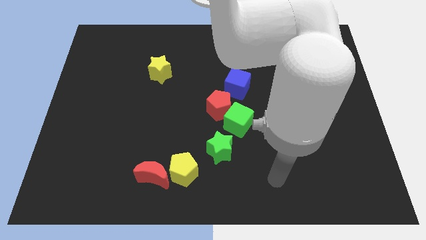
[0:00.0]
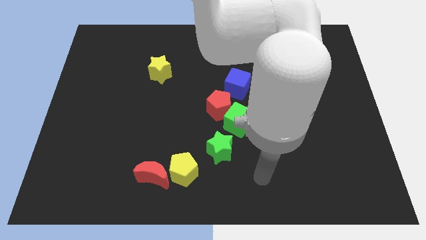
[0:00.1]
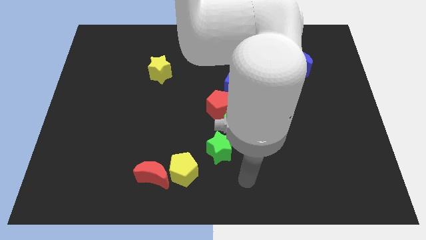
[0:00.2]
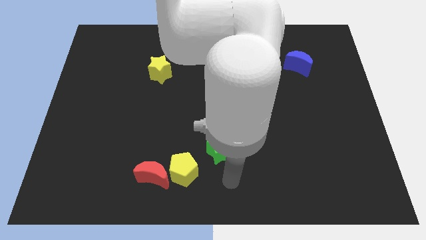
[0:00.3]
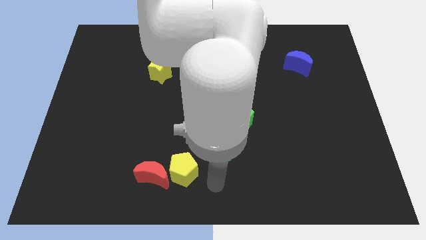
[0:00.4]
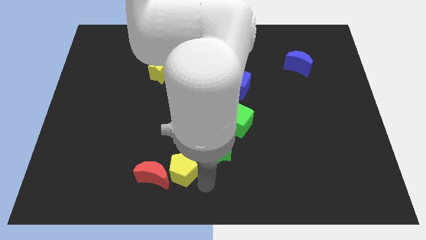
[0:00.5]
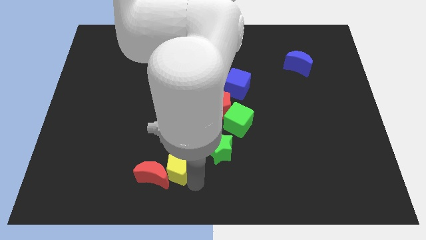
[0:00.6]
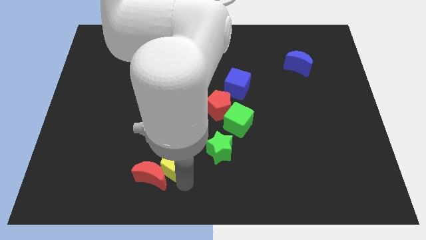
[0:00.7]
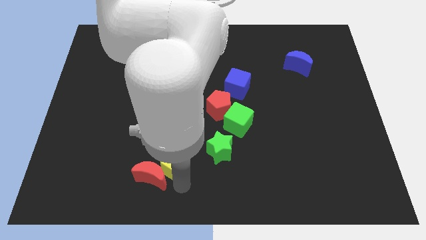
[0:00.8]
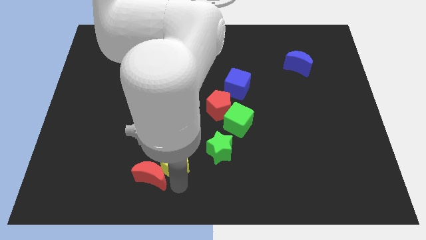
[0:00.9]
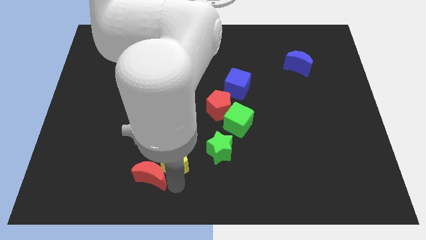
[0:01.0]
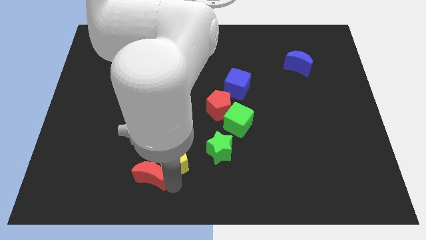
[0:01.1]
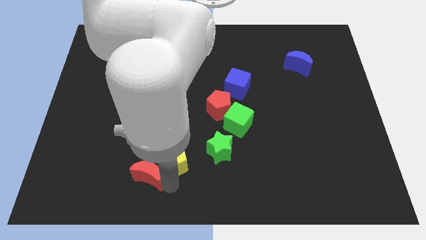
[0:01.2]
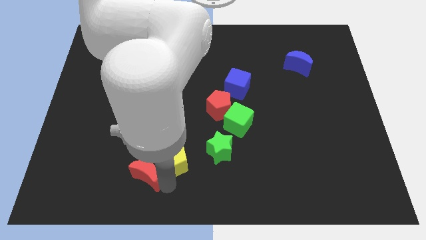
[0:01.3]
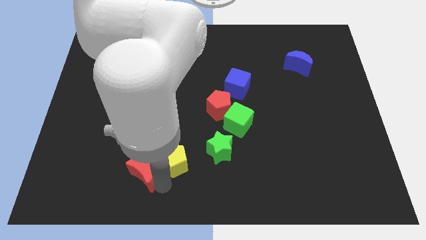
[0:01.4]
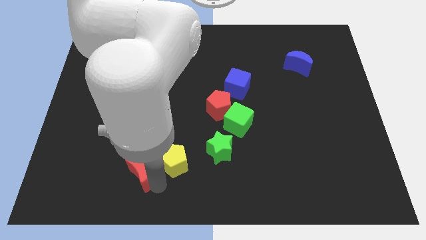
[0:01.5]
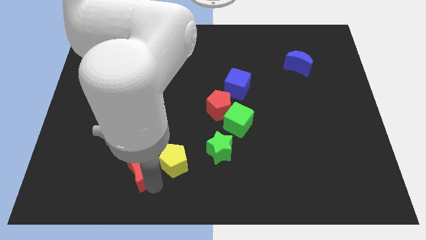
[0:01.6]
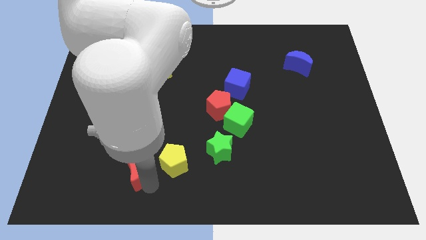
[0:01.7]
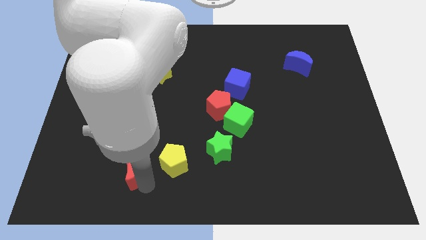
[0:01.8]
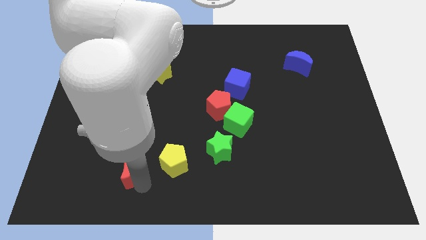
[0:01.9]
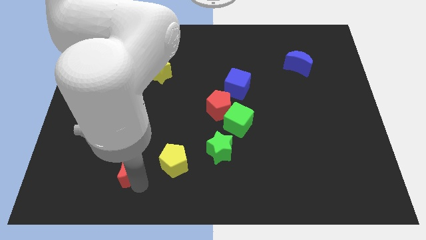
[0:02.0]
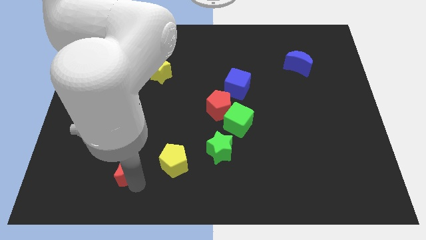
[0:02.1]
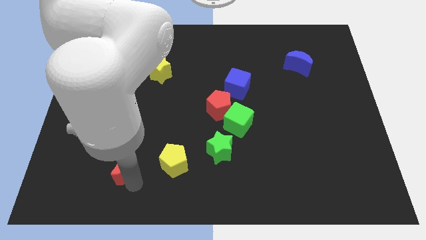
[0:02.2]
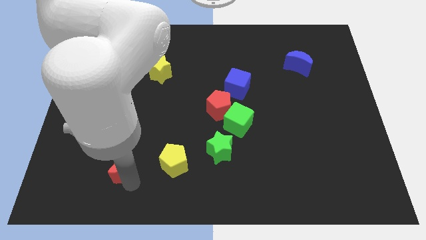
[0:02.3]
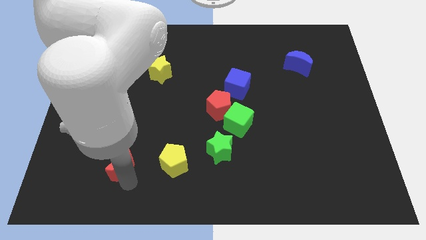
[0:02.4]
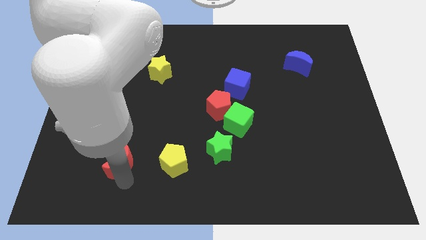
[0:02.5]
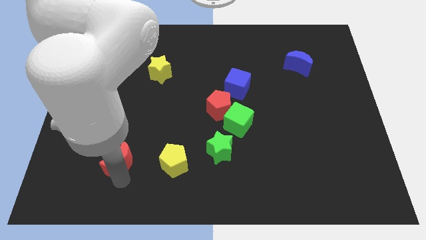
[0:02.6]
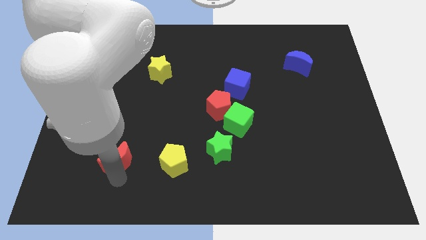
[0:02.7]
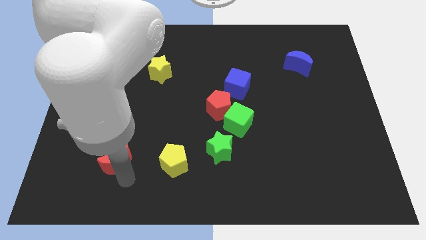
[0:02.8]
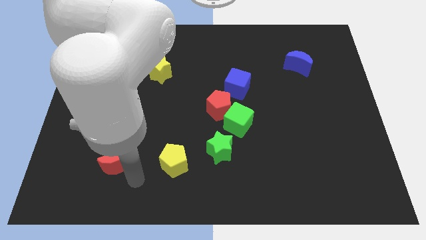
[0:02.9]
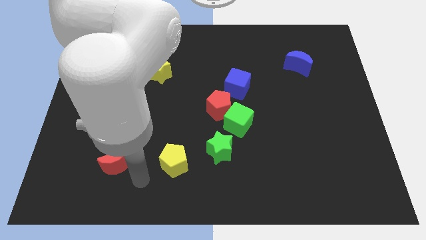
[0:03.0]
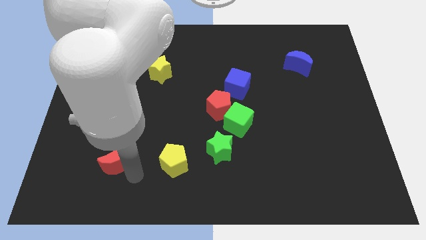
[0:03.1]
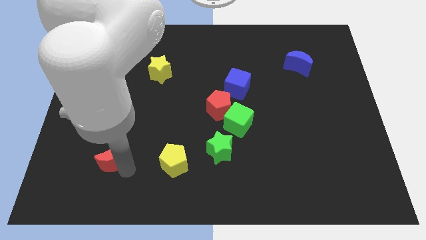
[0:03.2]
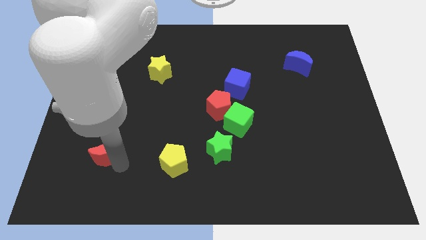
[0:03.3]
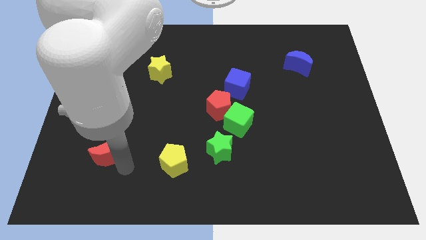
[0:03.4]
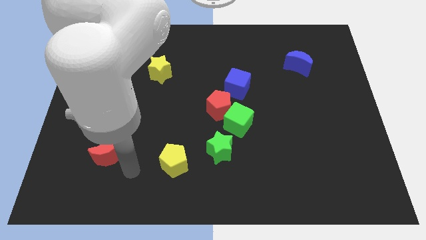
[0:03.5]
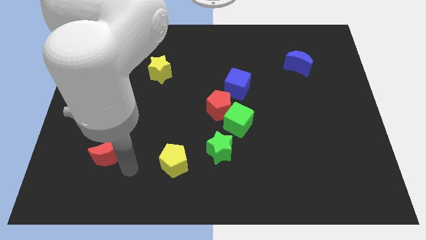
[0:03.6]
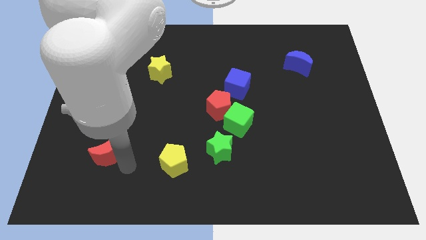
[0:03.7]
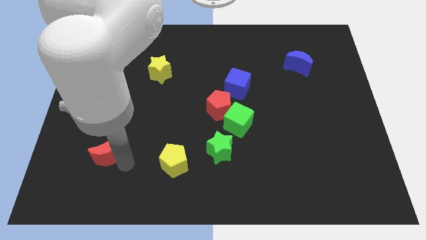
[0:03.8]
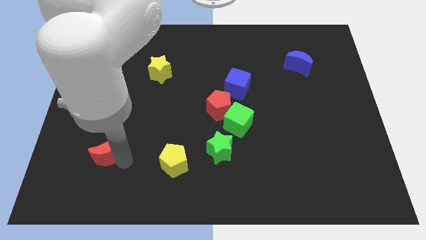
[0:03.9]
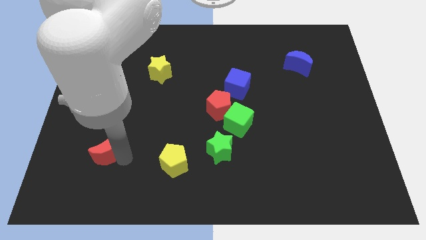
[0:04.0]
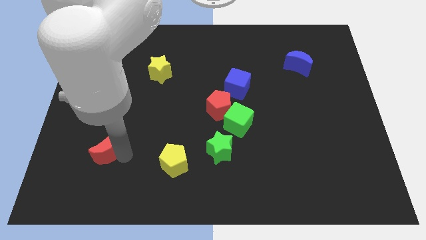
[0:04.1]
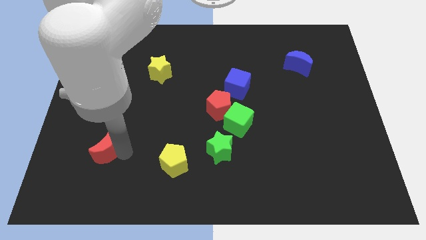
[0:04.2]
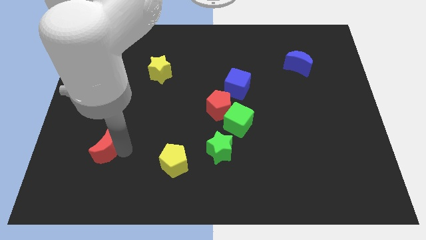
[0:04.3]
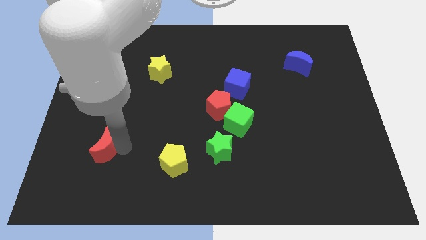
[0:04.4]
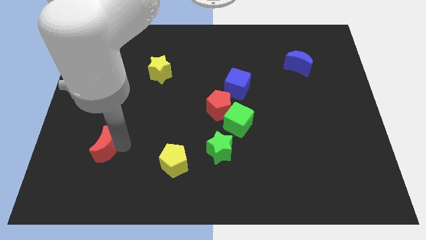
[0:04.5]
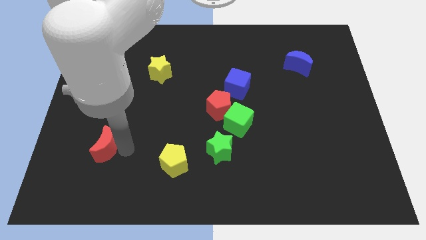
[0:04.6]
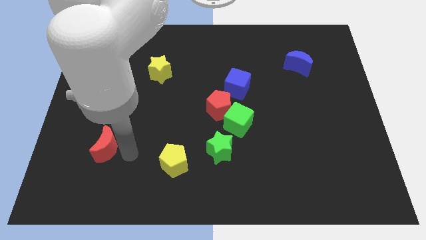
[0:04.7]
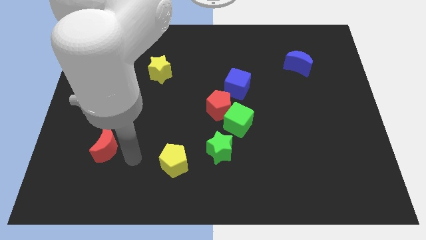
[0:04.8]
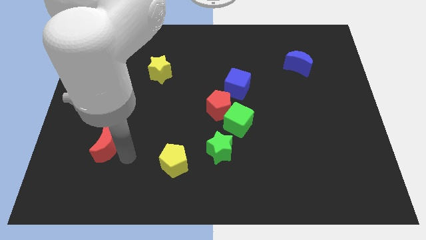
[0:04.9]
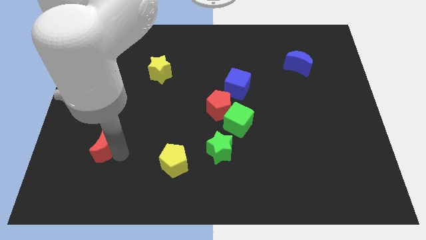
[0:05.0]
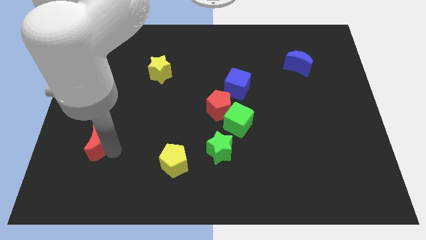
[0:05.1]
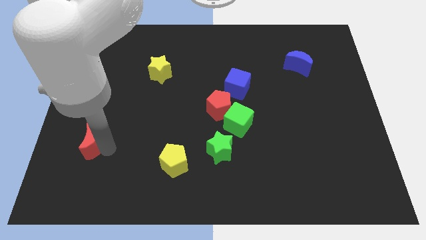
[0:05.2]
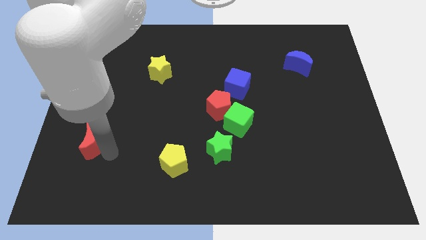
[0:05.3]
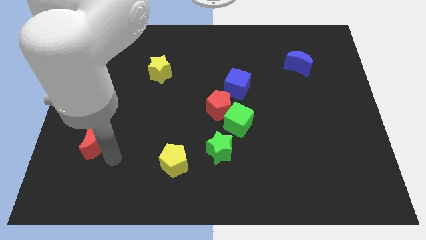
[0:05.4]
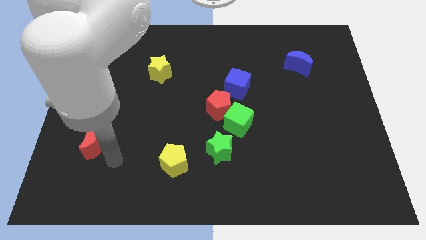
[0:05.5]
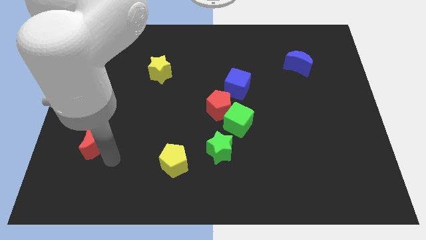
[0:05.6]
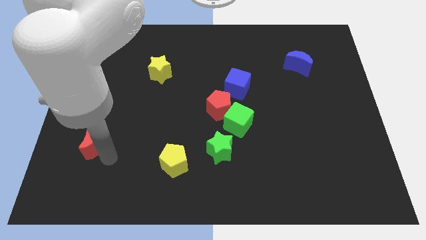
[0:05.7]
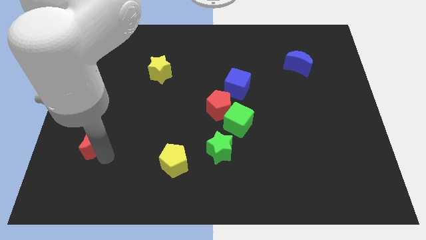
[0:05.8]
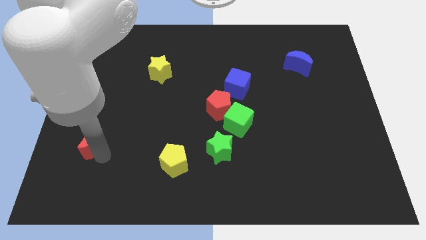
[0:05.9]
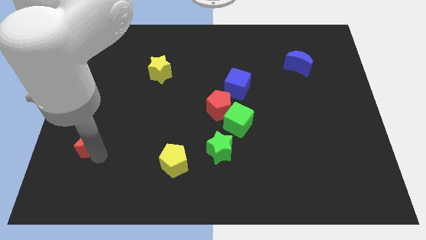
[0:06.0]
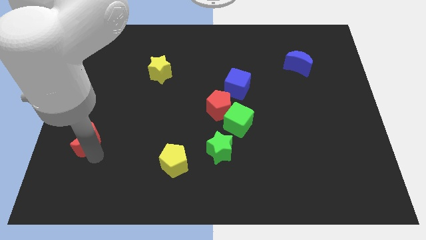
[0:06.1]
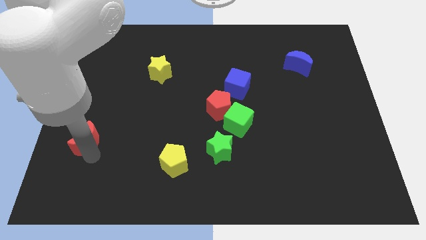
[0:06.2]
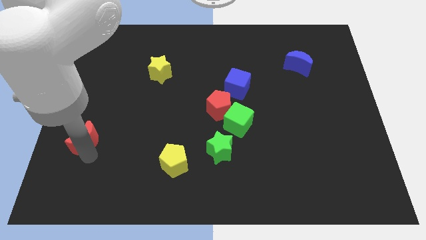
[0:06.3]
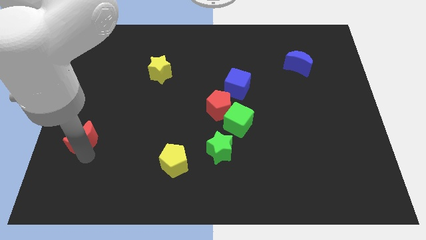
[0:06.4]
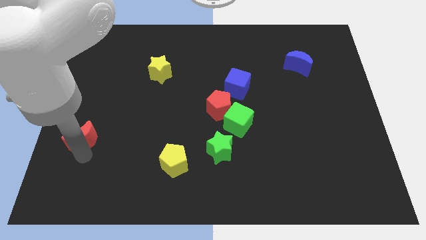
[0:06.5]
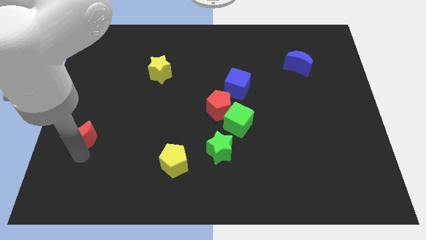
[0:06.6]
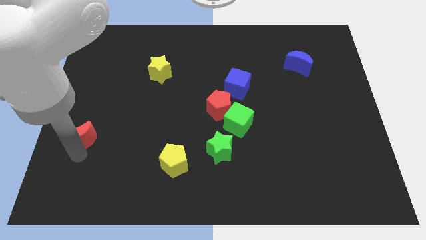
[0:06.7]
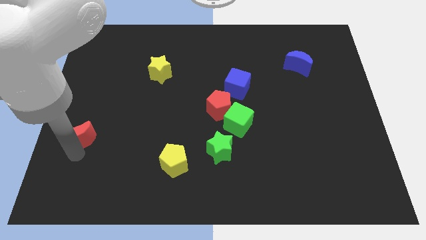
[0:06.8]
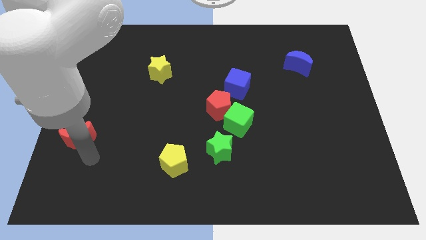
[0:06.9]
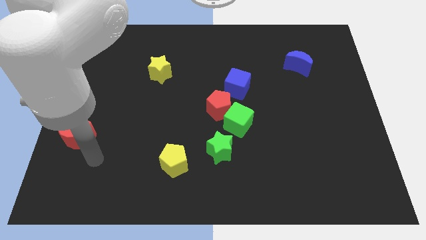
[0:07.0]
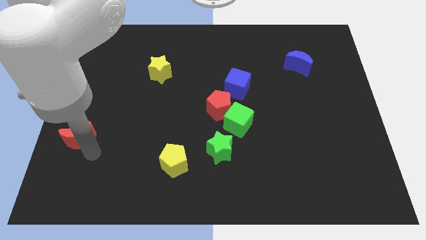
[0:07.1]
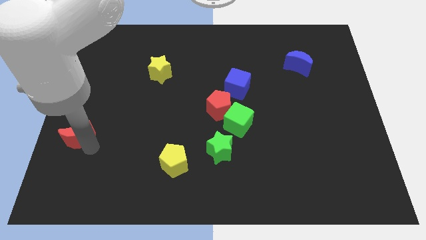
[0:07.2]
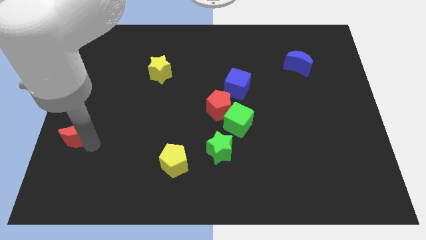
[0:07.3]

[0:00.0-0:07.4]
slide the red moon to the center left
